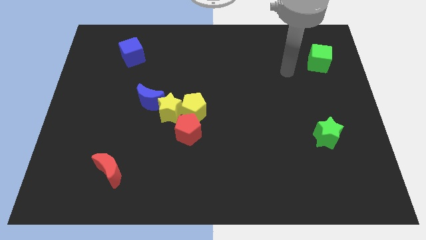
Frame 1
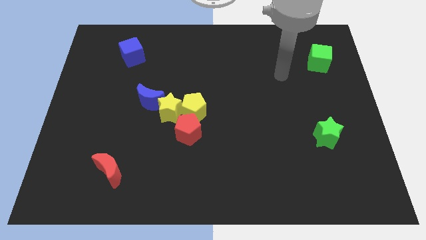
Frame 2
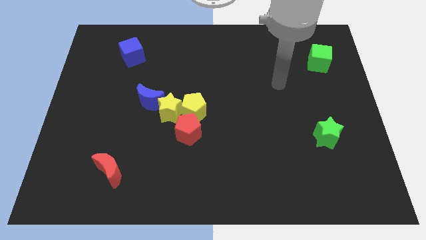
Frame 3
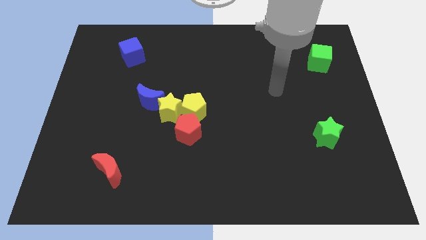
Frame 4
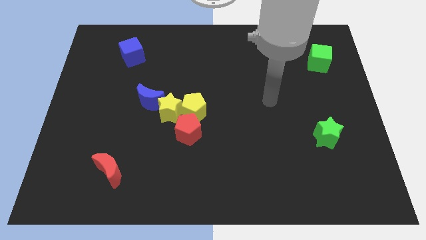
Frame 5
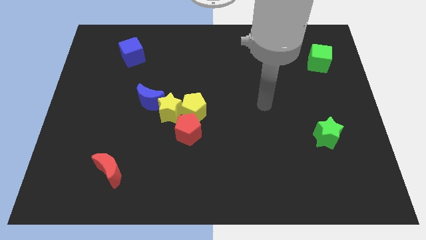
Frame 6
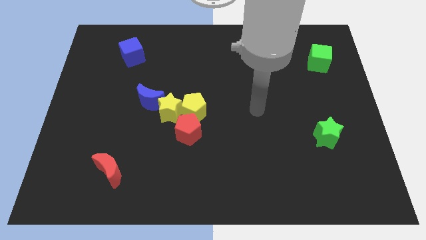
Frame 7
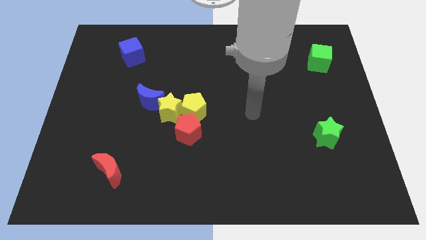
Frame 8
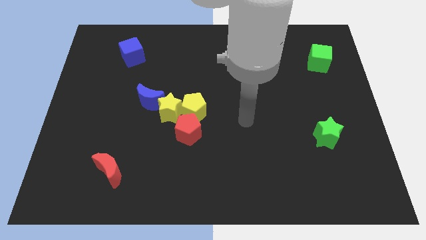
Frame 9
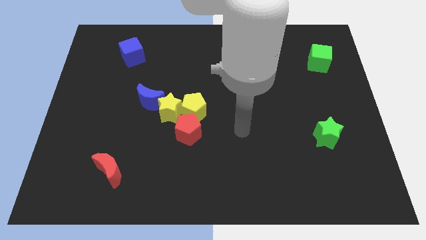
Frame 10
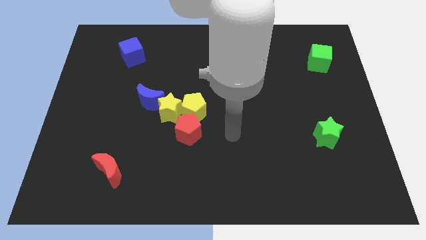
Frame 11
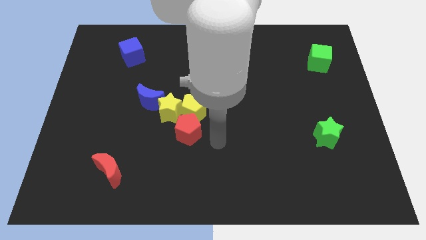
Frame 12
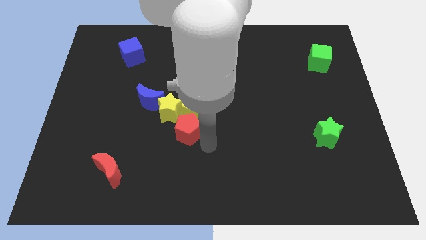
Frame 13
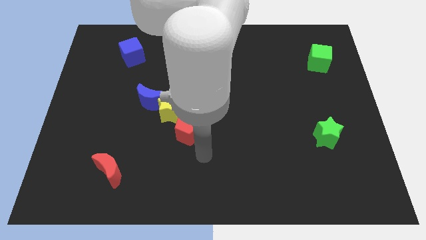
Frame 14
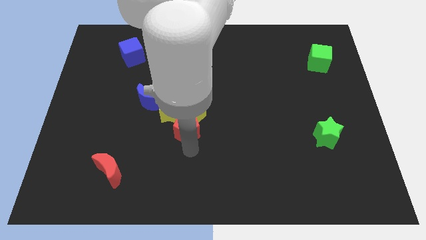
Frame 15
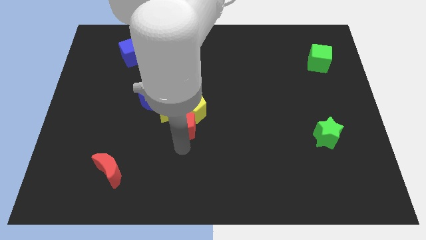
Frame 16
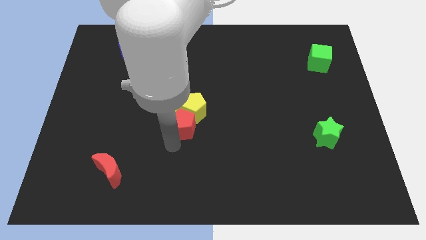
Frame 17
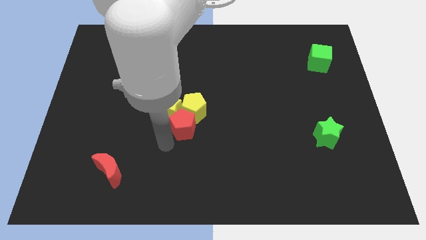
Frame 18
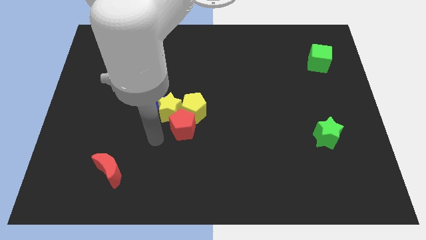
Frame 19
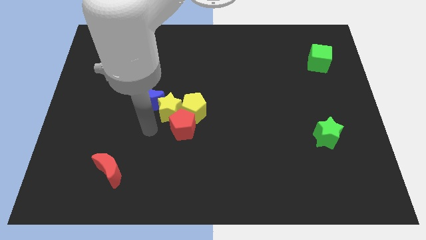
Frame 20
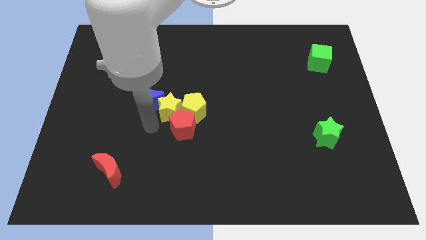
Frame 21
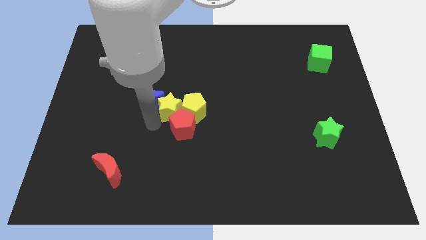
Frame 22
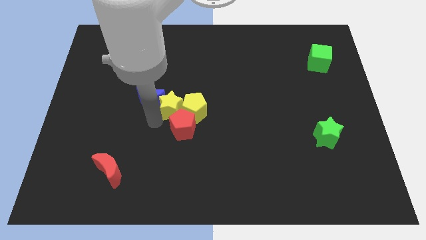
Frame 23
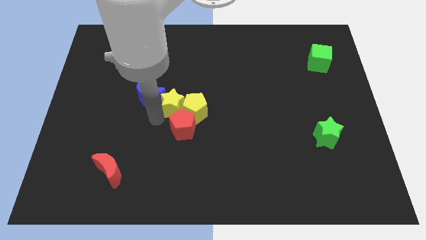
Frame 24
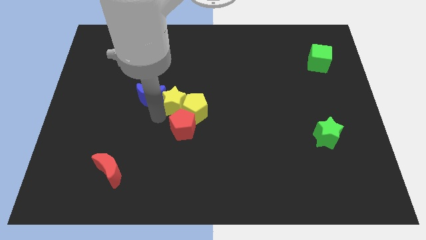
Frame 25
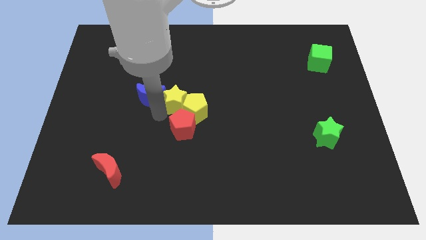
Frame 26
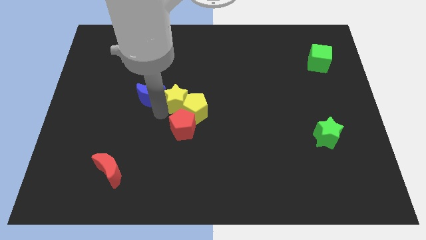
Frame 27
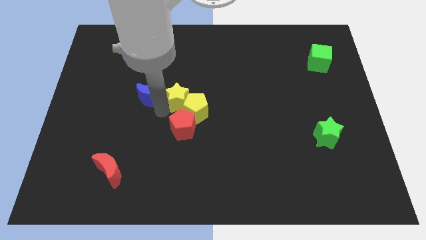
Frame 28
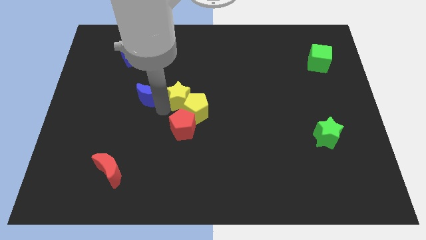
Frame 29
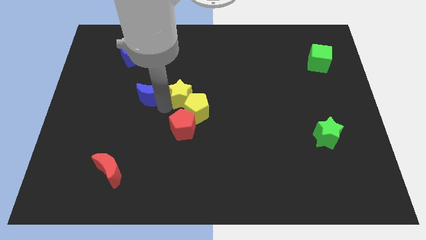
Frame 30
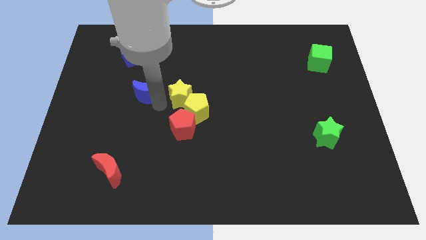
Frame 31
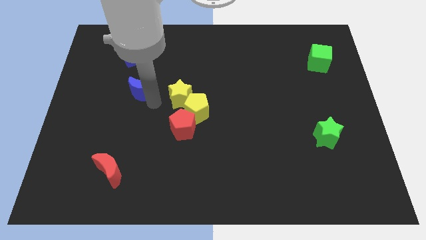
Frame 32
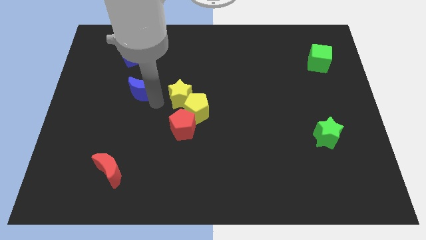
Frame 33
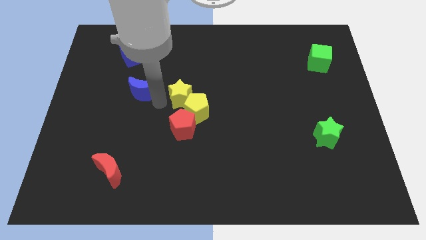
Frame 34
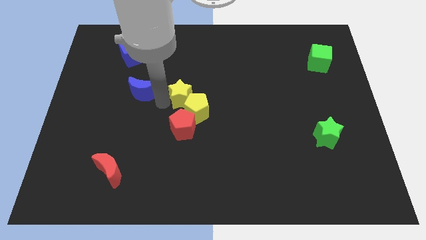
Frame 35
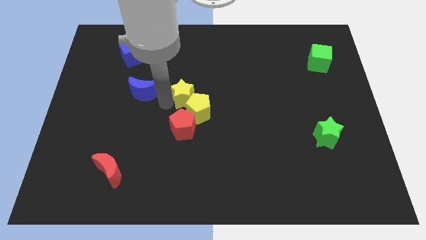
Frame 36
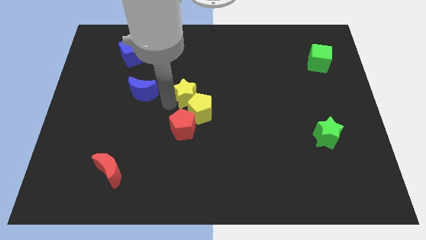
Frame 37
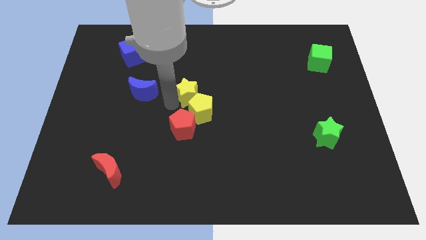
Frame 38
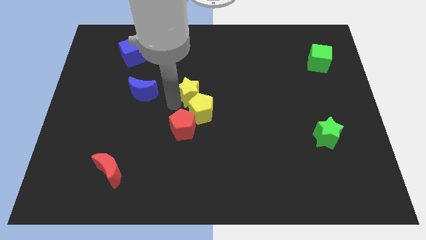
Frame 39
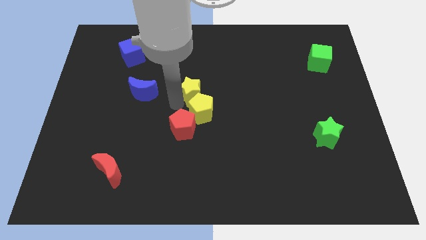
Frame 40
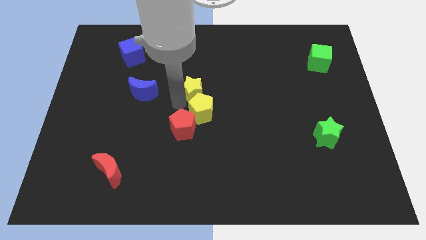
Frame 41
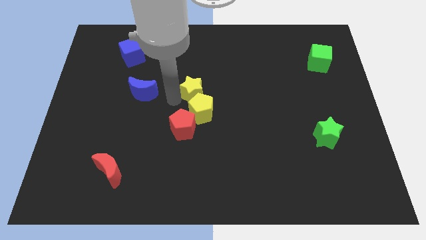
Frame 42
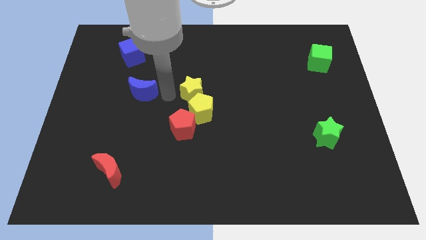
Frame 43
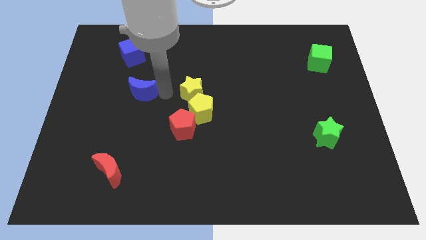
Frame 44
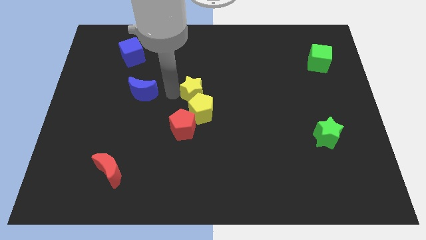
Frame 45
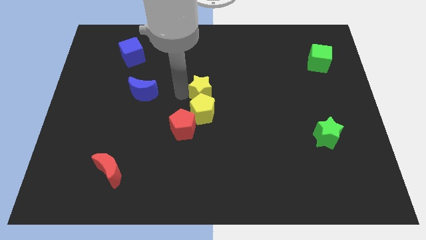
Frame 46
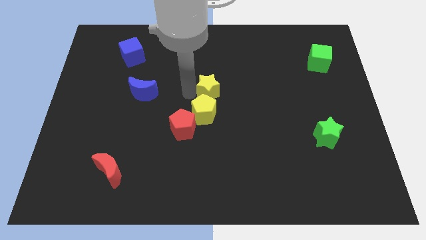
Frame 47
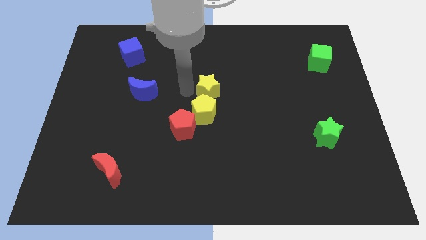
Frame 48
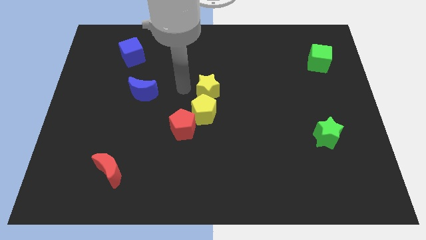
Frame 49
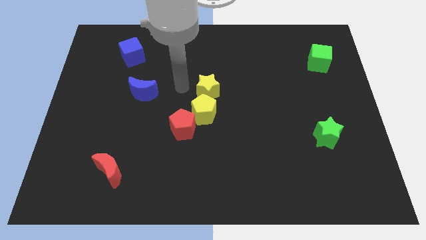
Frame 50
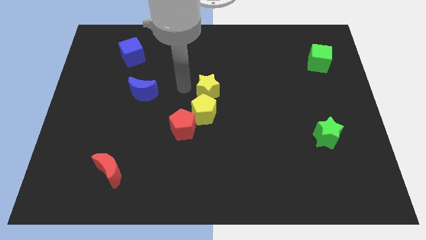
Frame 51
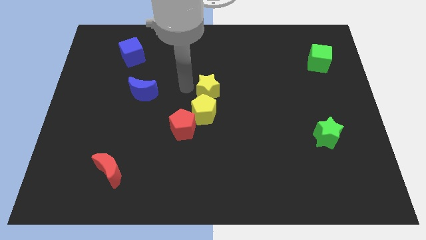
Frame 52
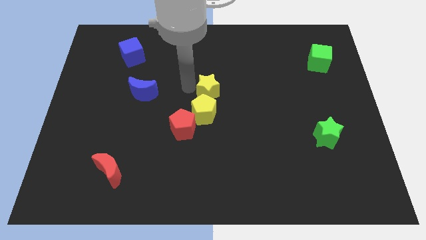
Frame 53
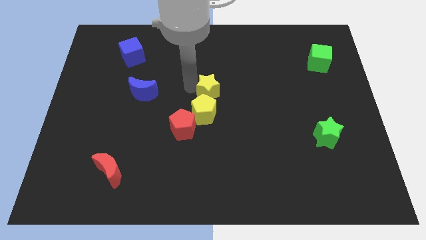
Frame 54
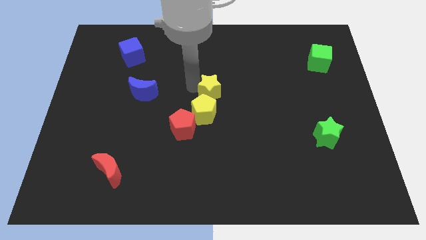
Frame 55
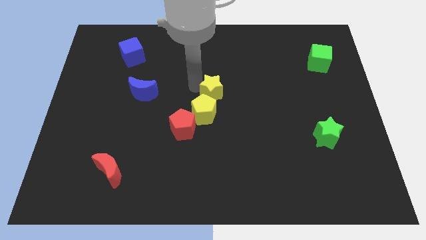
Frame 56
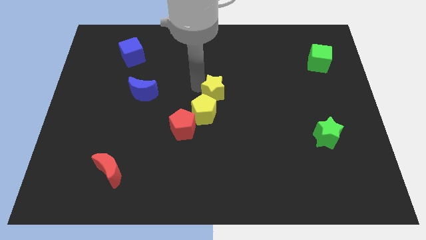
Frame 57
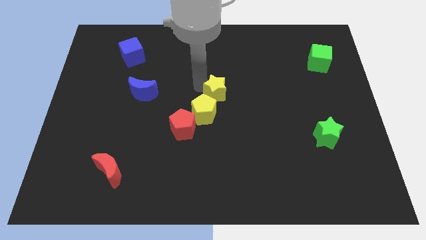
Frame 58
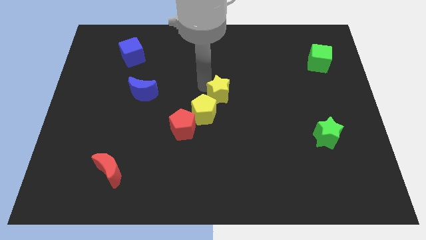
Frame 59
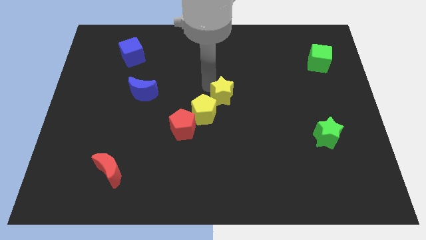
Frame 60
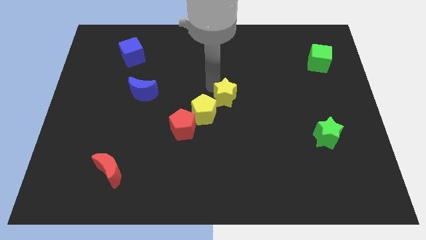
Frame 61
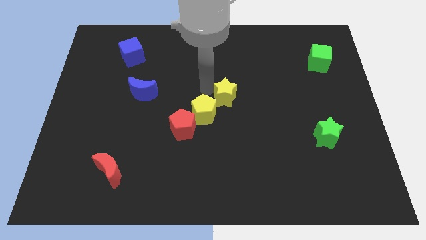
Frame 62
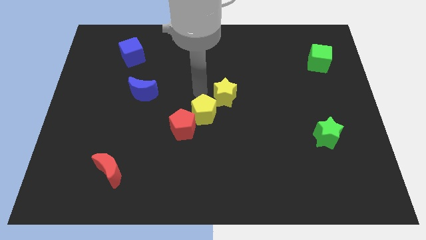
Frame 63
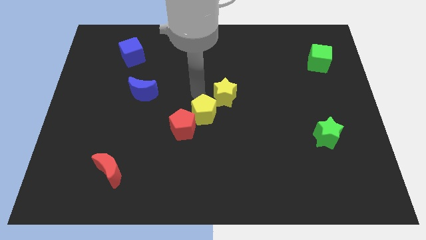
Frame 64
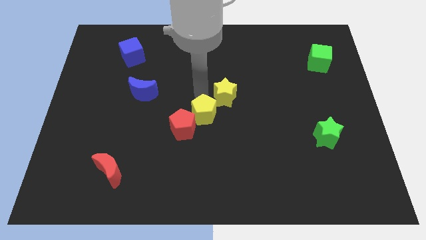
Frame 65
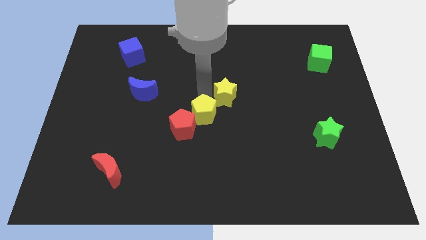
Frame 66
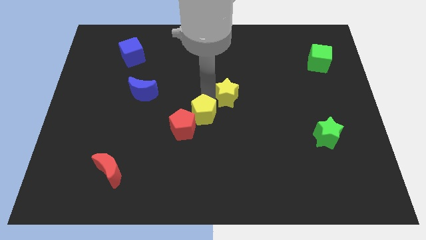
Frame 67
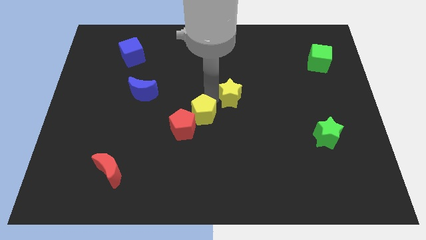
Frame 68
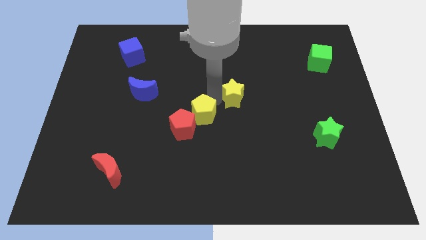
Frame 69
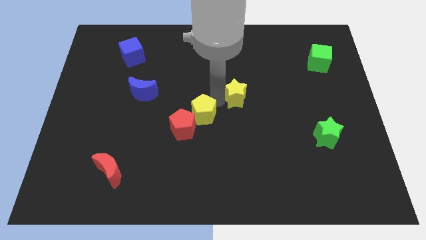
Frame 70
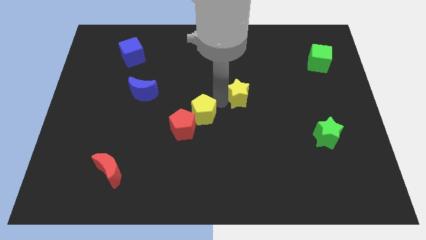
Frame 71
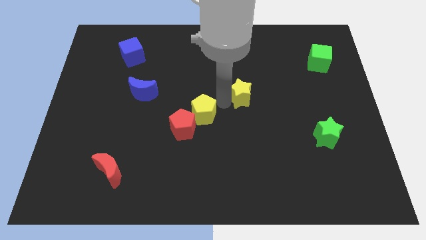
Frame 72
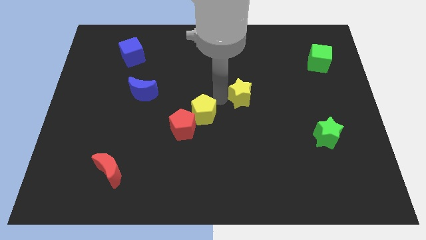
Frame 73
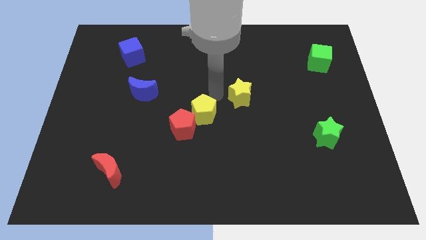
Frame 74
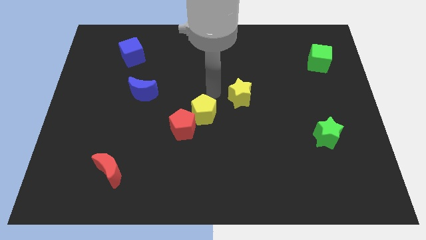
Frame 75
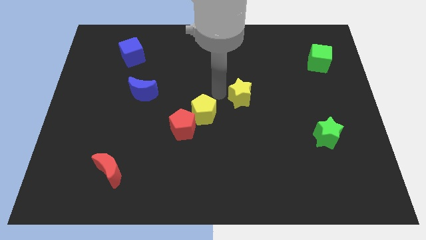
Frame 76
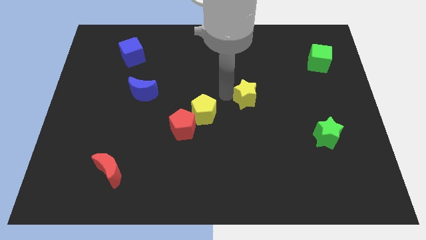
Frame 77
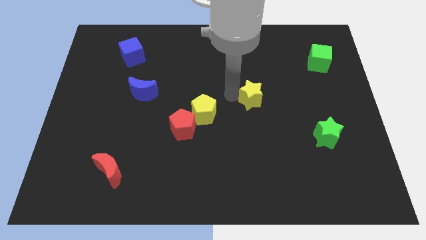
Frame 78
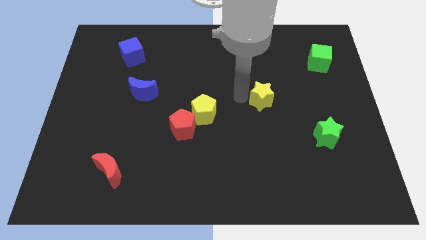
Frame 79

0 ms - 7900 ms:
push the yellow star right
